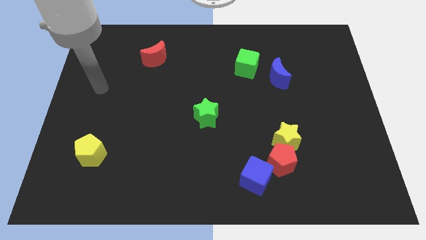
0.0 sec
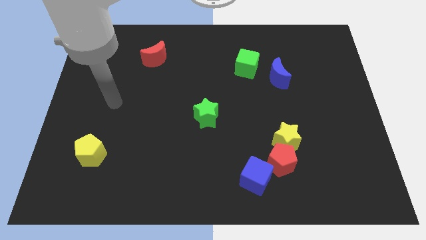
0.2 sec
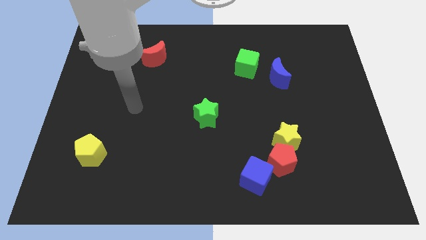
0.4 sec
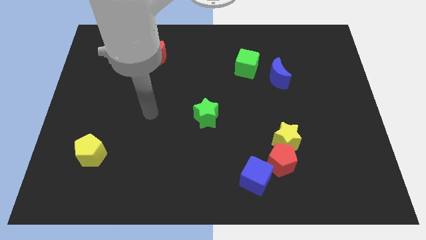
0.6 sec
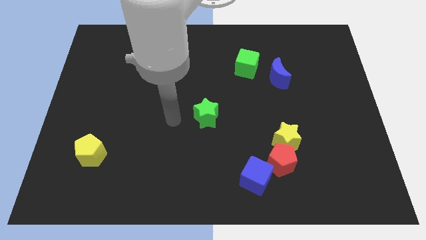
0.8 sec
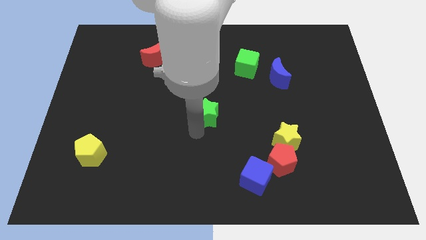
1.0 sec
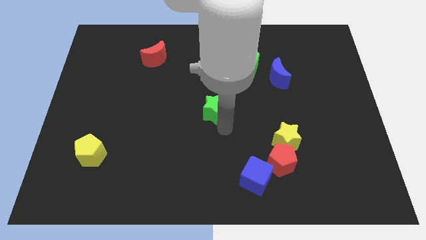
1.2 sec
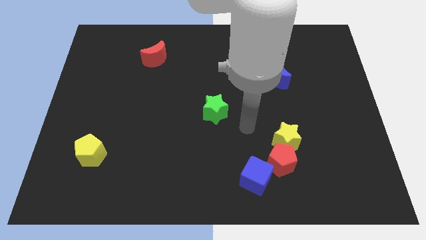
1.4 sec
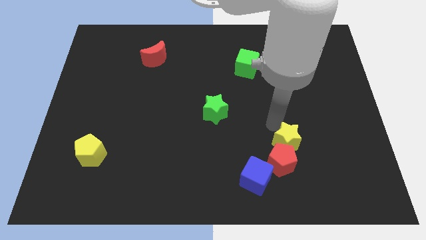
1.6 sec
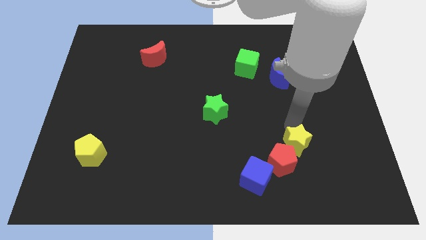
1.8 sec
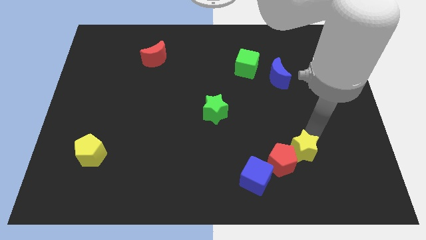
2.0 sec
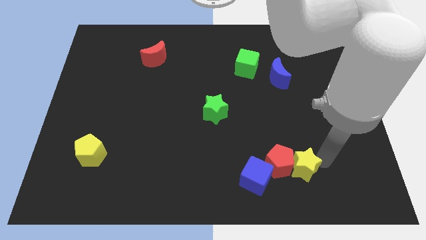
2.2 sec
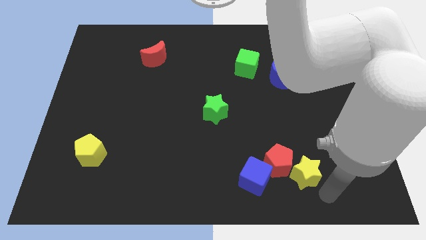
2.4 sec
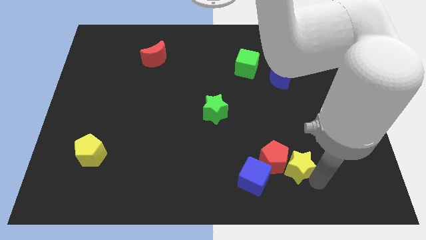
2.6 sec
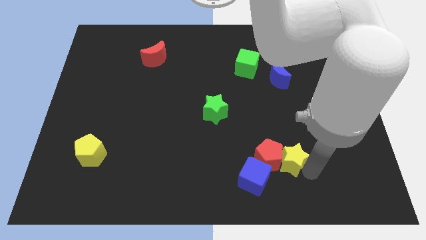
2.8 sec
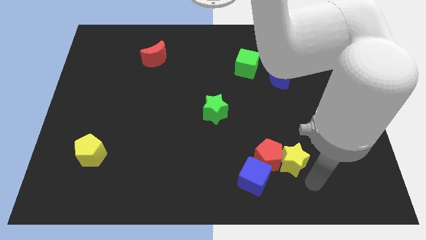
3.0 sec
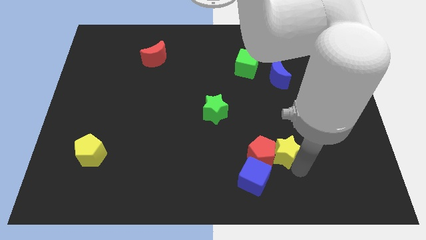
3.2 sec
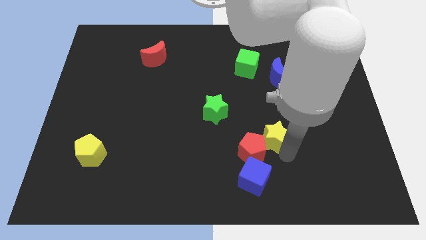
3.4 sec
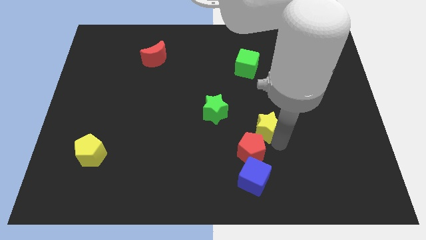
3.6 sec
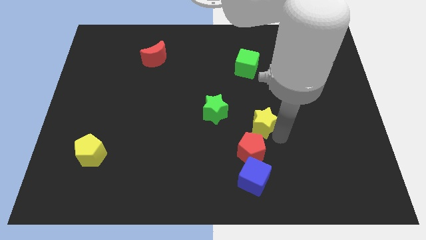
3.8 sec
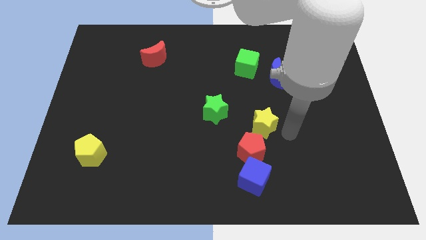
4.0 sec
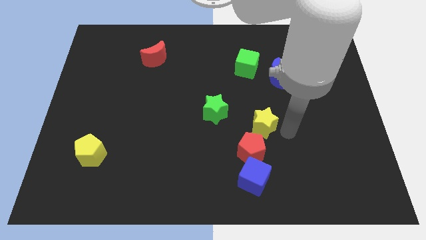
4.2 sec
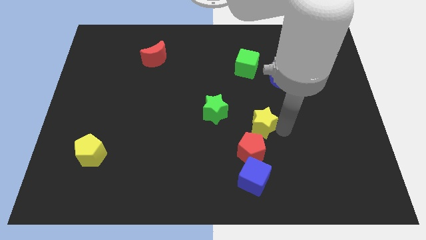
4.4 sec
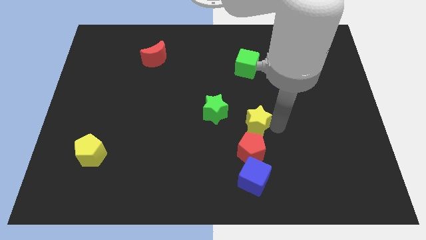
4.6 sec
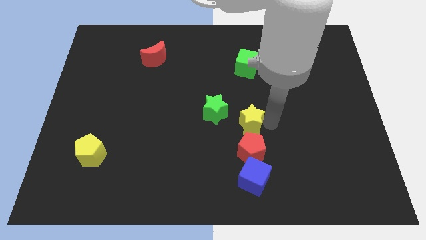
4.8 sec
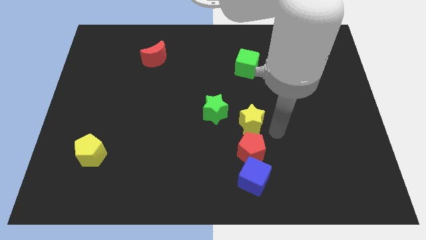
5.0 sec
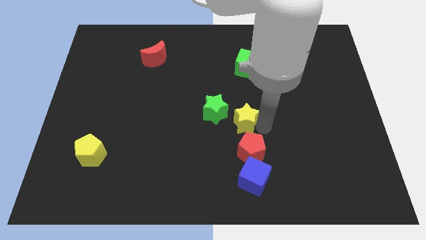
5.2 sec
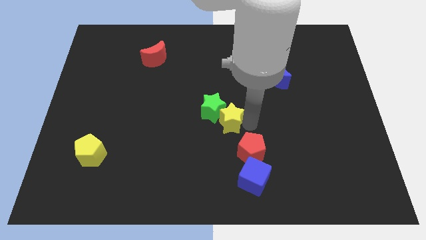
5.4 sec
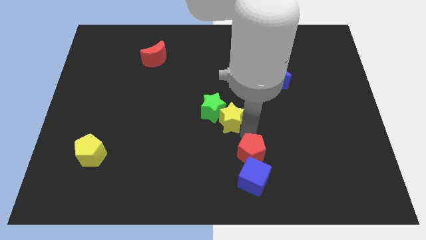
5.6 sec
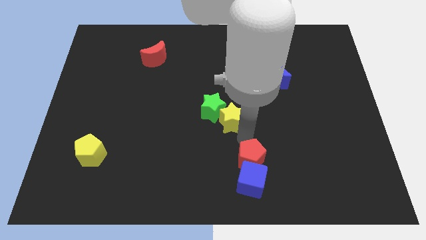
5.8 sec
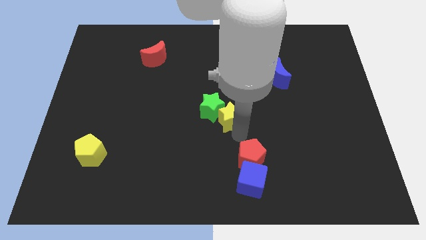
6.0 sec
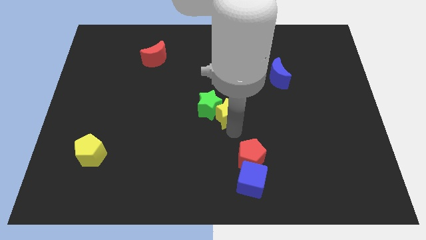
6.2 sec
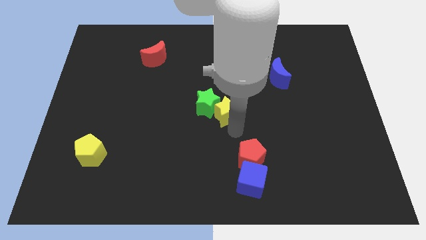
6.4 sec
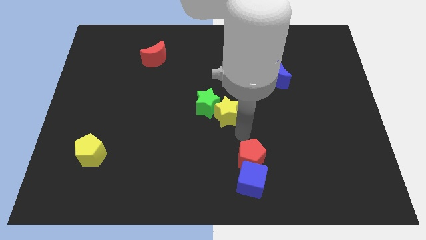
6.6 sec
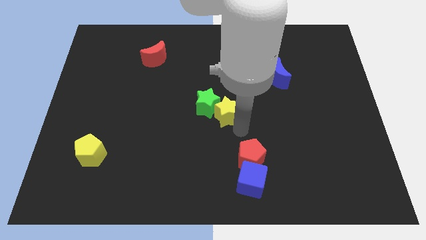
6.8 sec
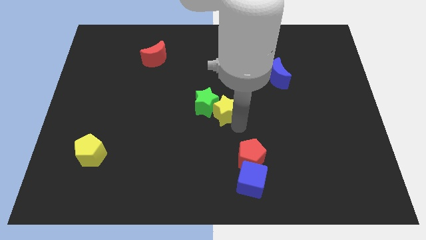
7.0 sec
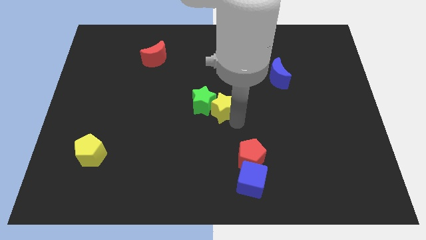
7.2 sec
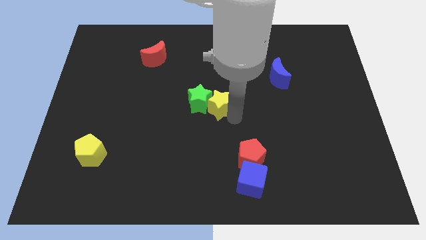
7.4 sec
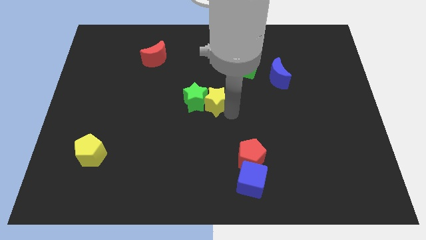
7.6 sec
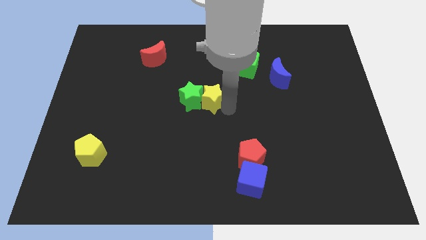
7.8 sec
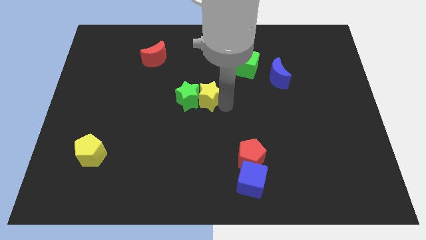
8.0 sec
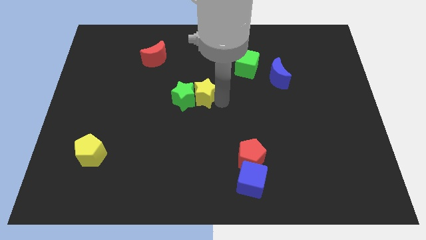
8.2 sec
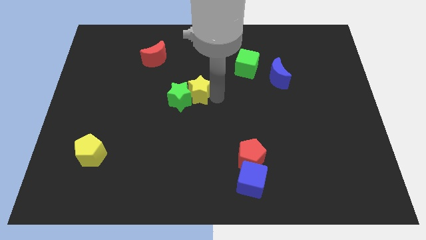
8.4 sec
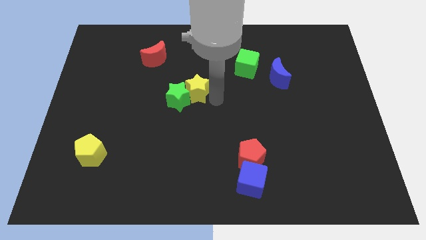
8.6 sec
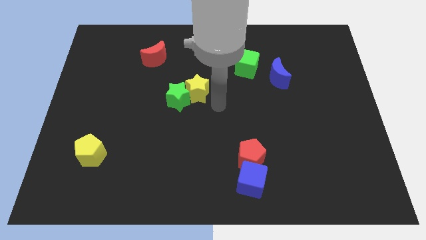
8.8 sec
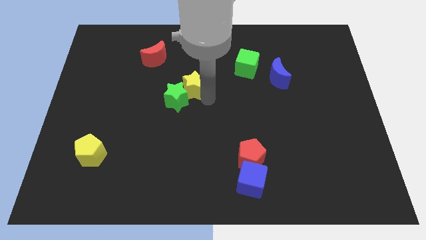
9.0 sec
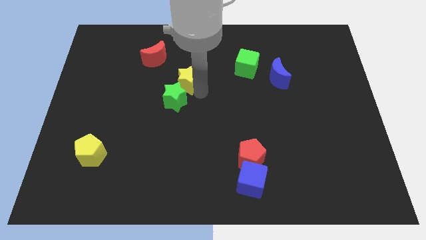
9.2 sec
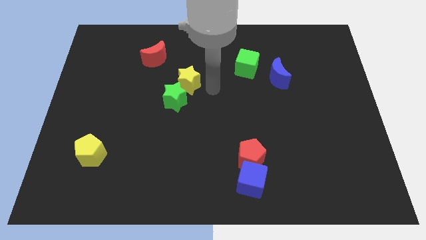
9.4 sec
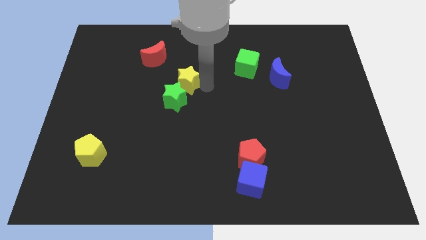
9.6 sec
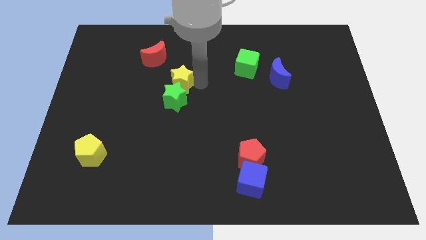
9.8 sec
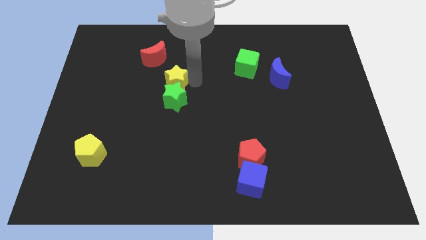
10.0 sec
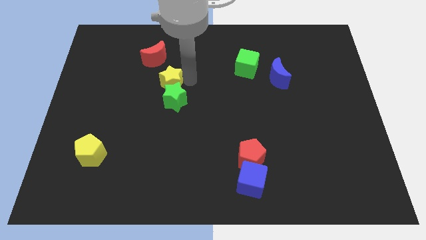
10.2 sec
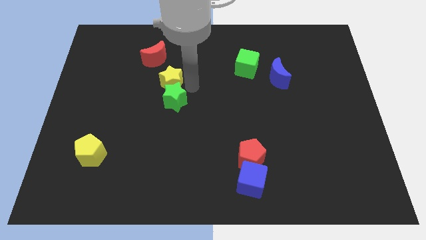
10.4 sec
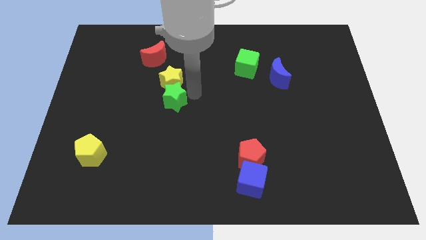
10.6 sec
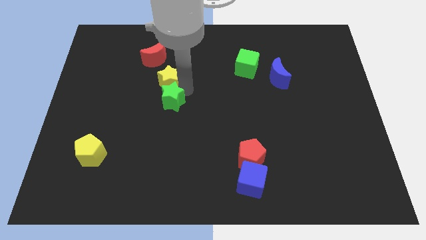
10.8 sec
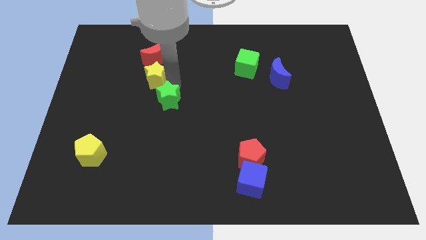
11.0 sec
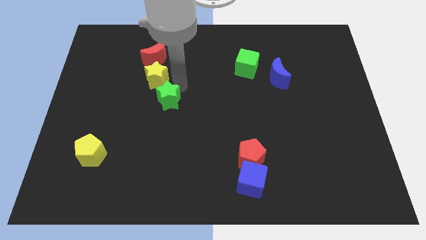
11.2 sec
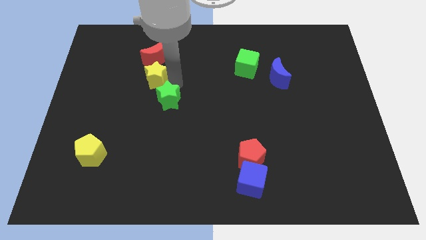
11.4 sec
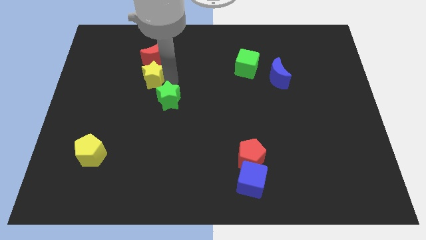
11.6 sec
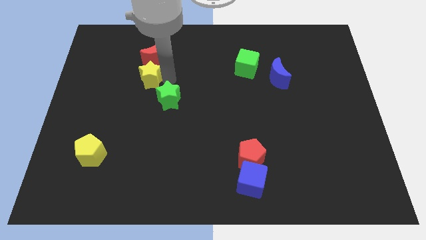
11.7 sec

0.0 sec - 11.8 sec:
move the yellow star to the bottom left side of the red moon

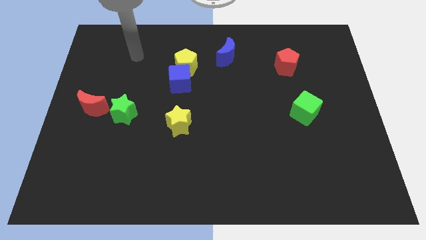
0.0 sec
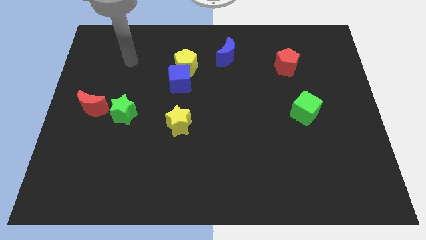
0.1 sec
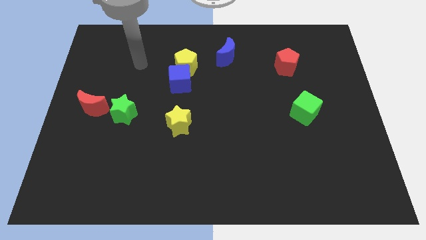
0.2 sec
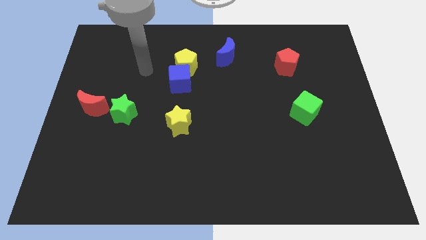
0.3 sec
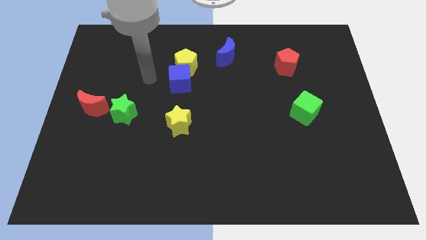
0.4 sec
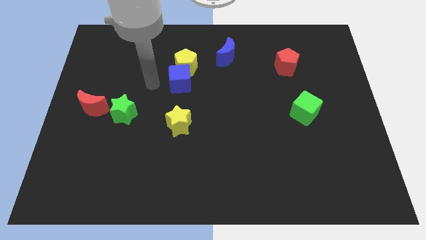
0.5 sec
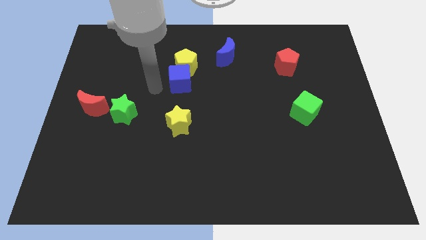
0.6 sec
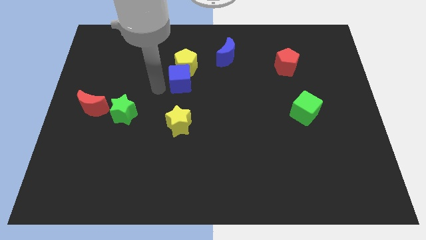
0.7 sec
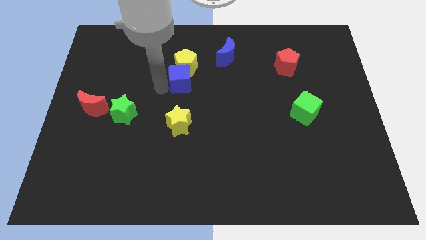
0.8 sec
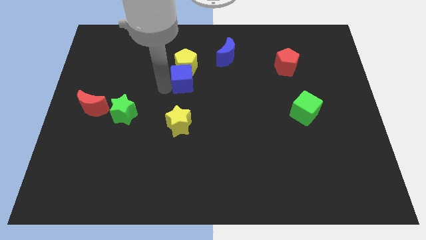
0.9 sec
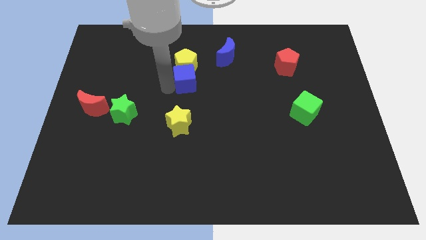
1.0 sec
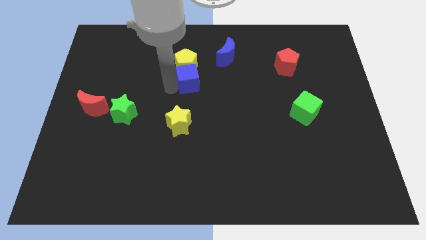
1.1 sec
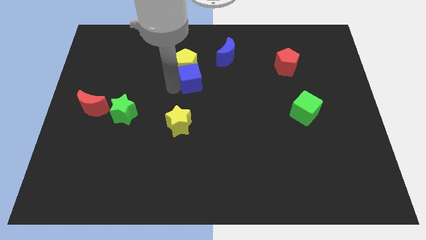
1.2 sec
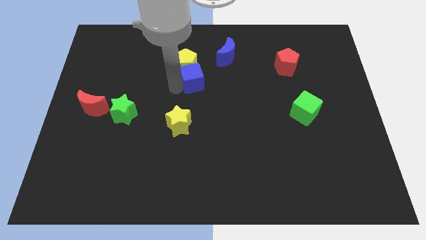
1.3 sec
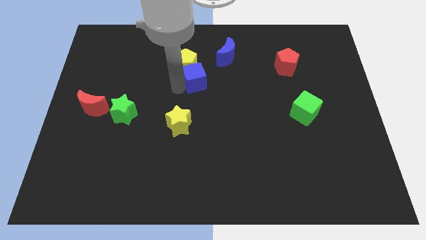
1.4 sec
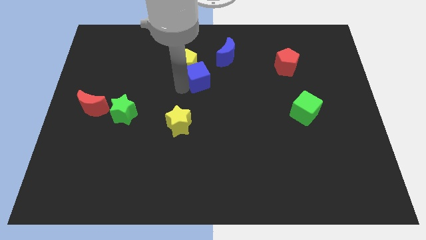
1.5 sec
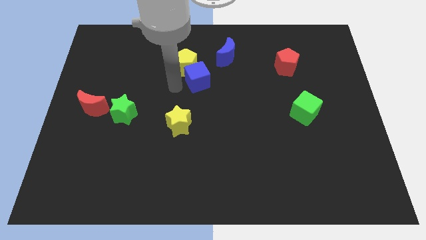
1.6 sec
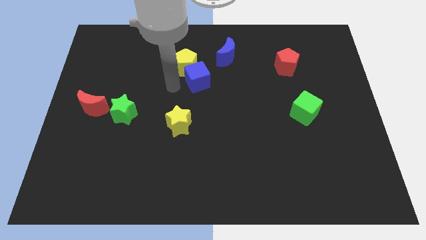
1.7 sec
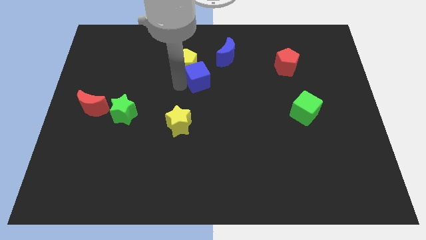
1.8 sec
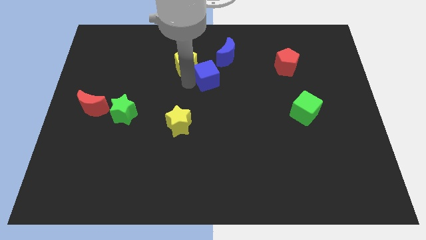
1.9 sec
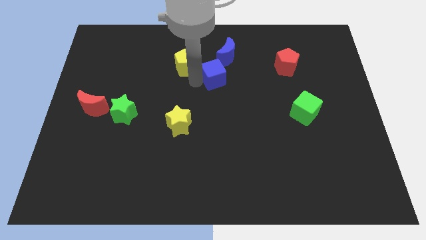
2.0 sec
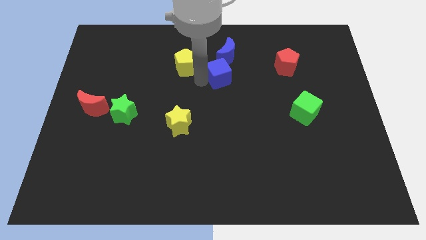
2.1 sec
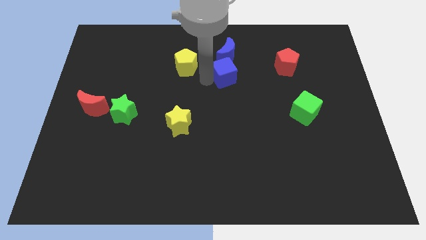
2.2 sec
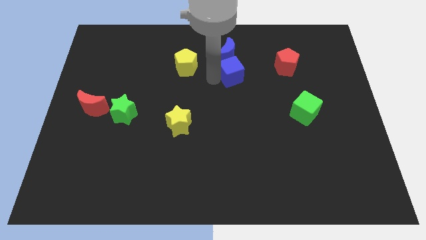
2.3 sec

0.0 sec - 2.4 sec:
put the blue cube to the left of the red pentagon
